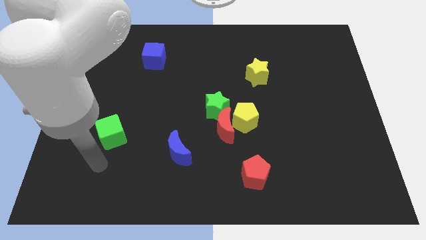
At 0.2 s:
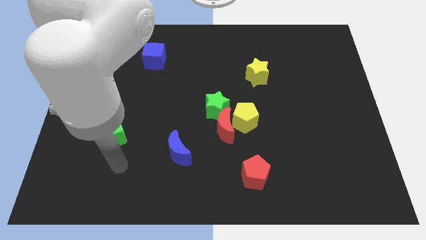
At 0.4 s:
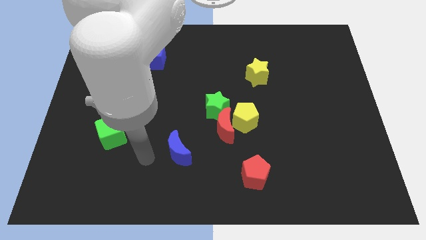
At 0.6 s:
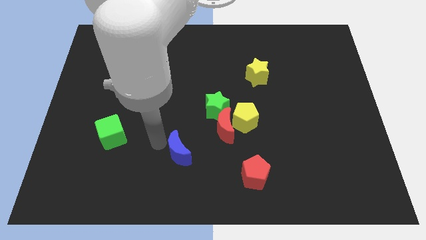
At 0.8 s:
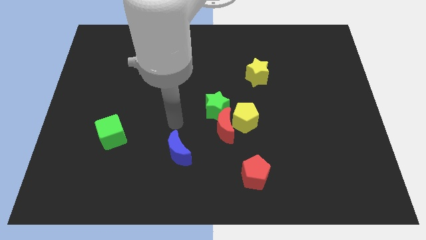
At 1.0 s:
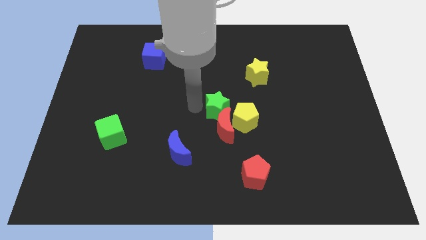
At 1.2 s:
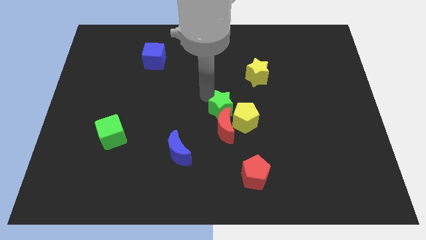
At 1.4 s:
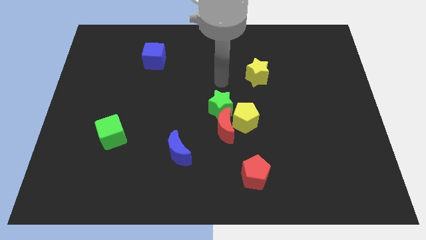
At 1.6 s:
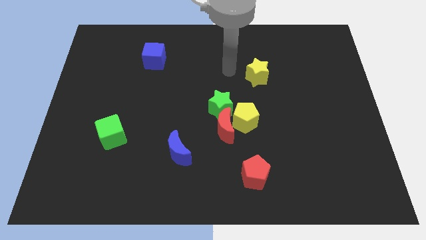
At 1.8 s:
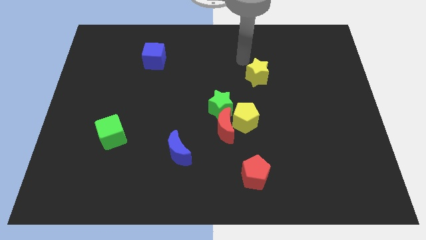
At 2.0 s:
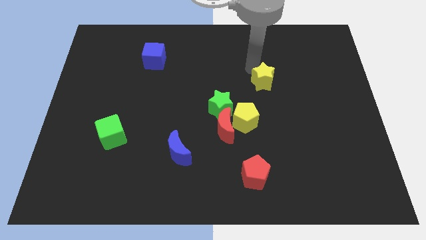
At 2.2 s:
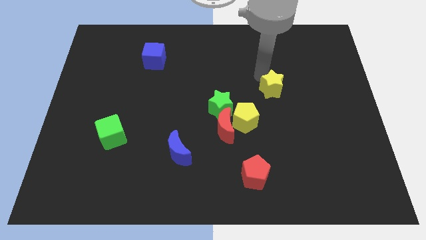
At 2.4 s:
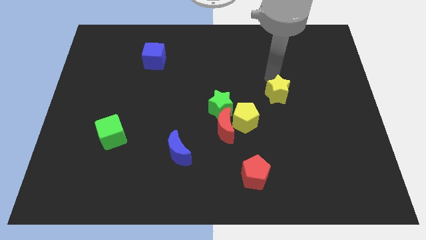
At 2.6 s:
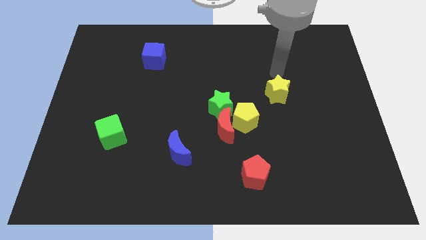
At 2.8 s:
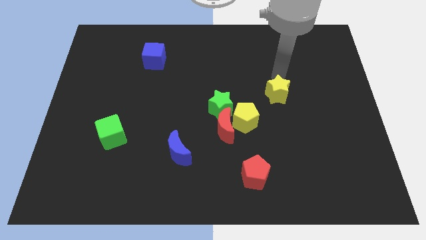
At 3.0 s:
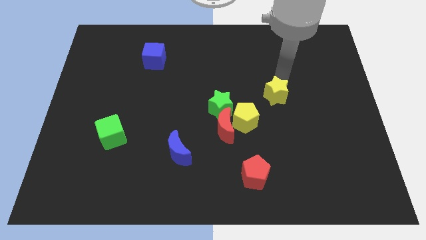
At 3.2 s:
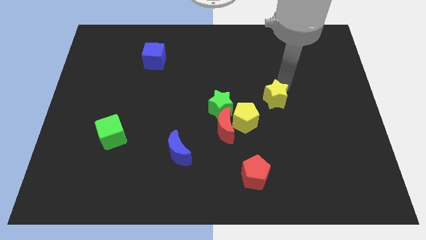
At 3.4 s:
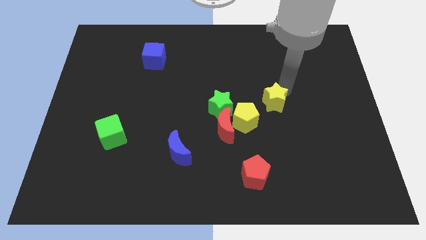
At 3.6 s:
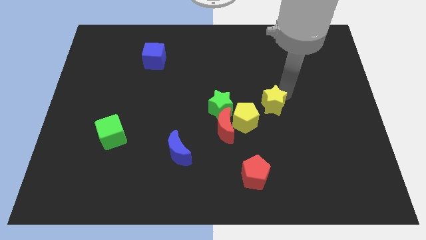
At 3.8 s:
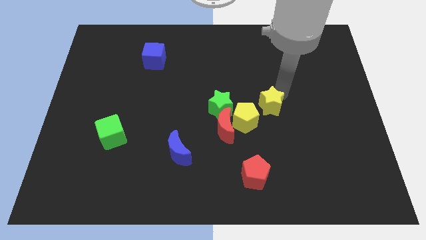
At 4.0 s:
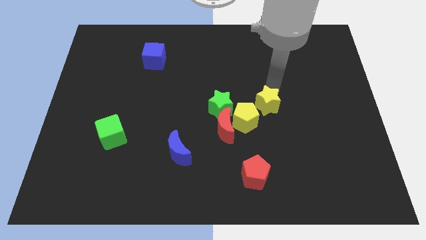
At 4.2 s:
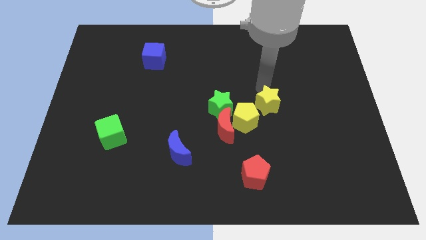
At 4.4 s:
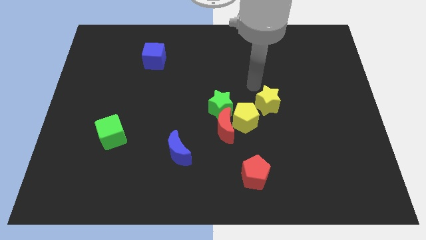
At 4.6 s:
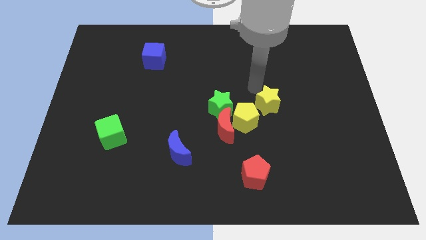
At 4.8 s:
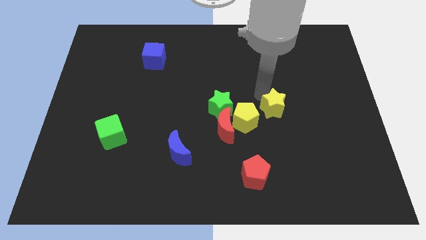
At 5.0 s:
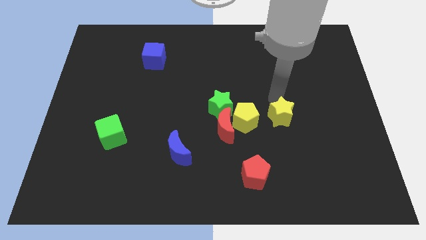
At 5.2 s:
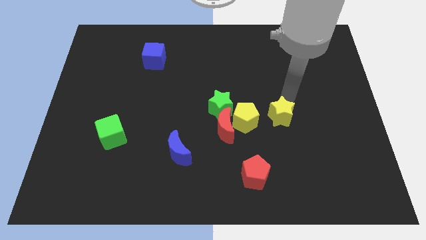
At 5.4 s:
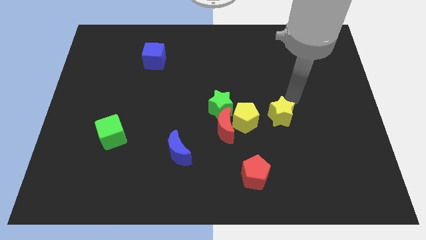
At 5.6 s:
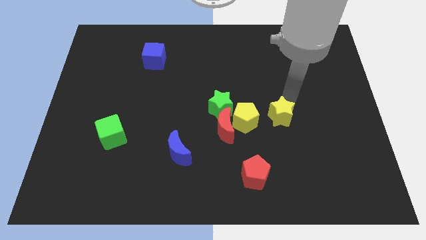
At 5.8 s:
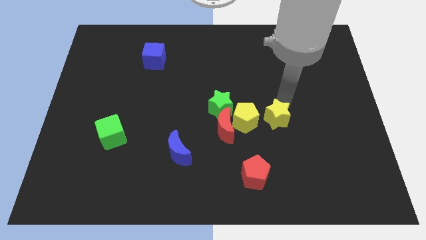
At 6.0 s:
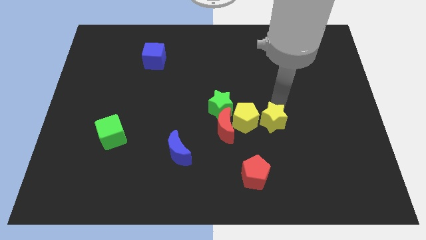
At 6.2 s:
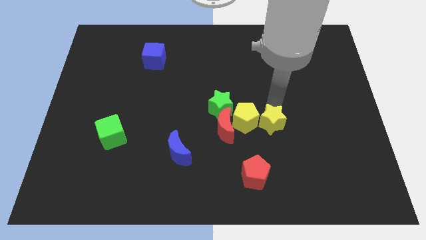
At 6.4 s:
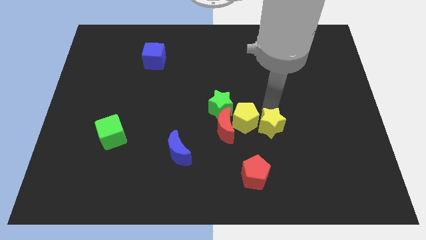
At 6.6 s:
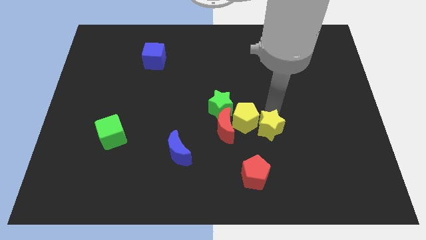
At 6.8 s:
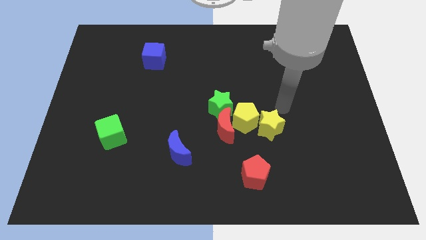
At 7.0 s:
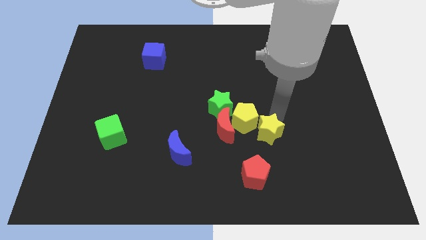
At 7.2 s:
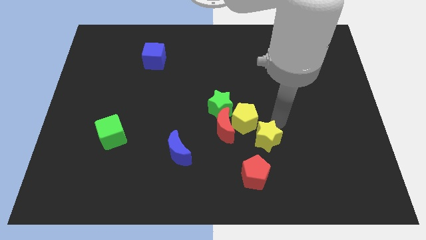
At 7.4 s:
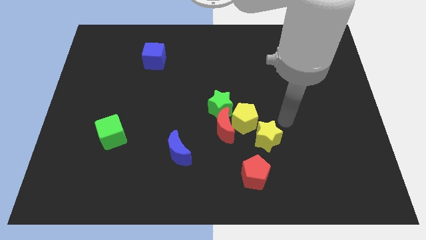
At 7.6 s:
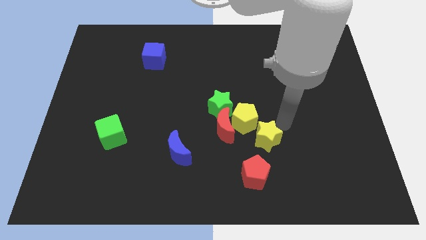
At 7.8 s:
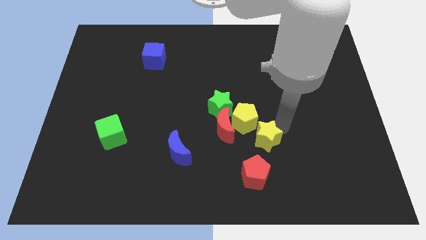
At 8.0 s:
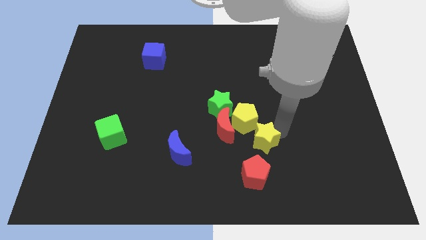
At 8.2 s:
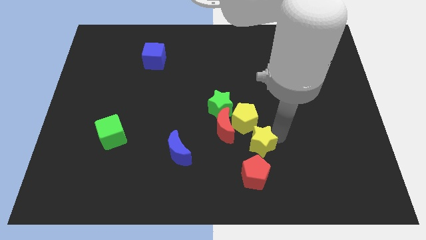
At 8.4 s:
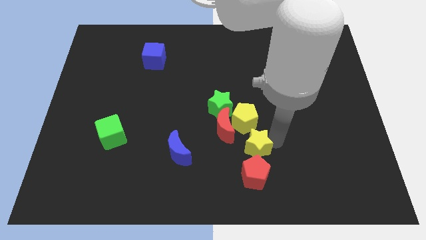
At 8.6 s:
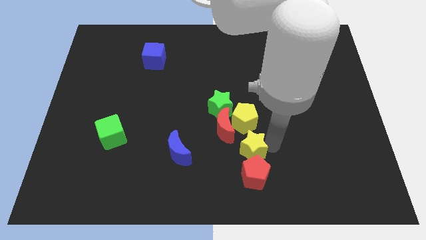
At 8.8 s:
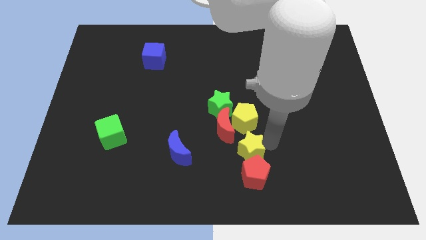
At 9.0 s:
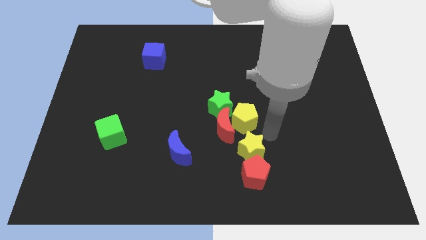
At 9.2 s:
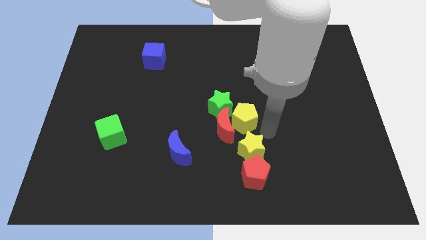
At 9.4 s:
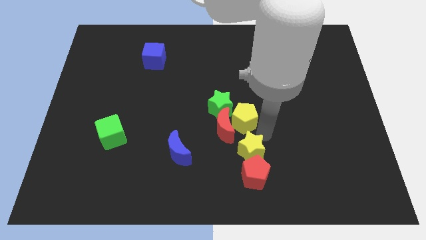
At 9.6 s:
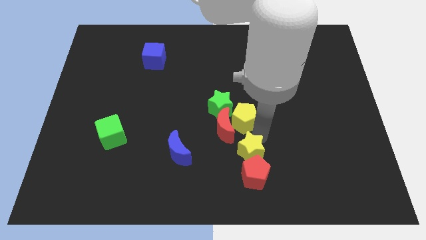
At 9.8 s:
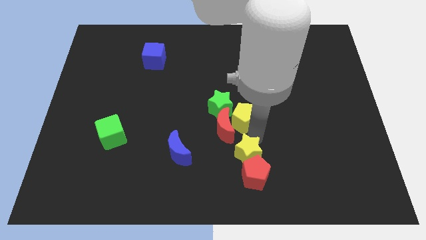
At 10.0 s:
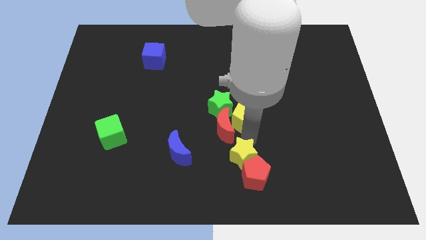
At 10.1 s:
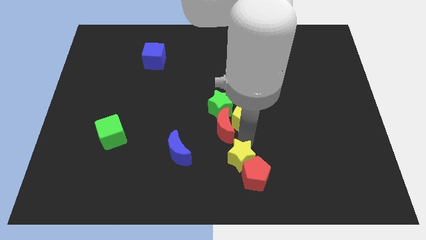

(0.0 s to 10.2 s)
push the yellow star to the bottom

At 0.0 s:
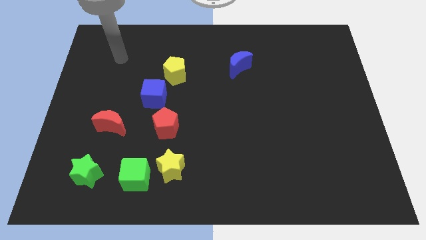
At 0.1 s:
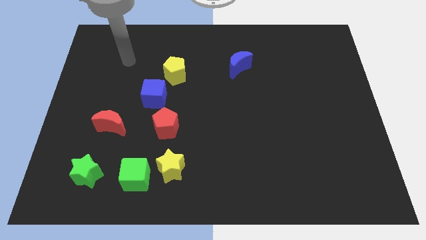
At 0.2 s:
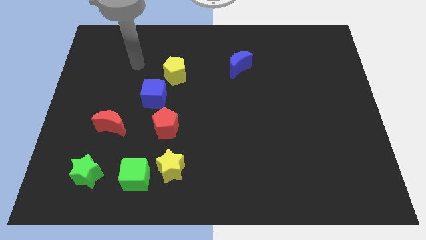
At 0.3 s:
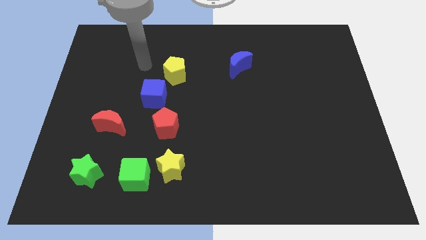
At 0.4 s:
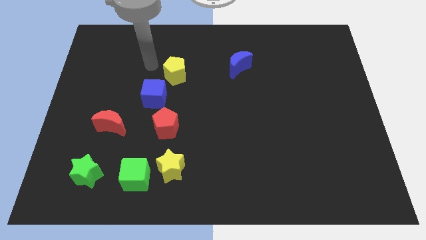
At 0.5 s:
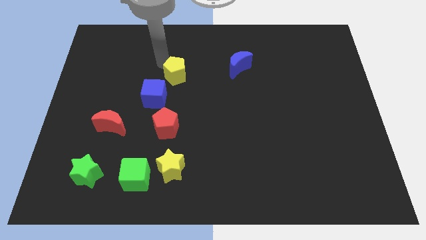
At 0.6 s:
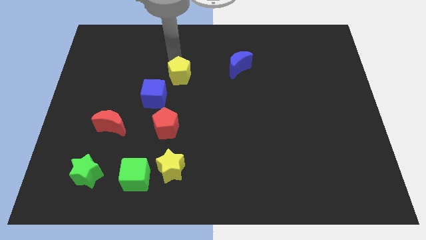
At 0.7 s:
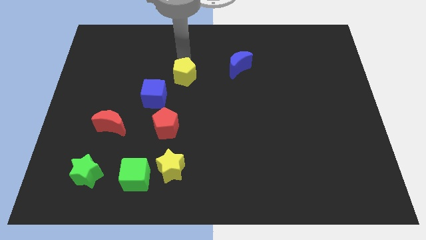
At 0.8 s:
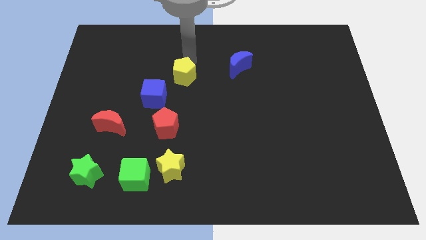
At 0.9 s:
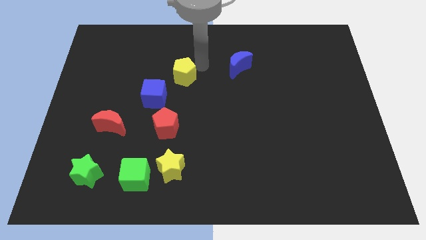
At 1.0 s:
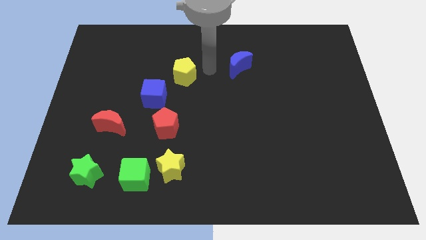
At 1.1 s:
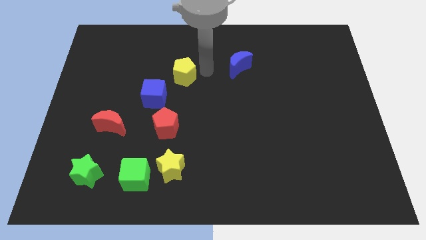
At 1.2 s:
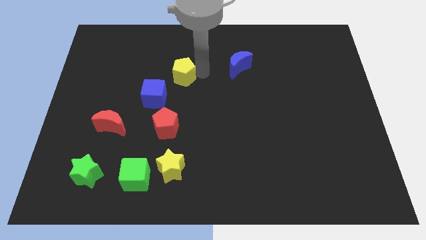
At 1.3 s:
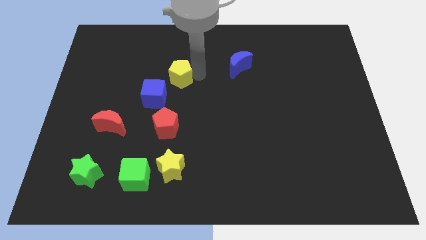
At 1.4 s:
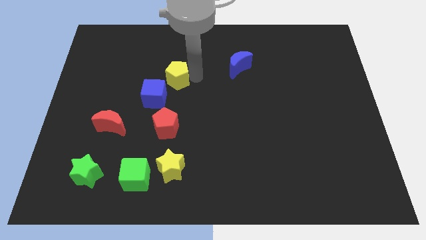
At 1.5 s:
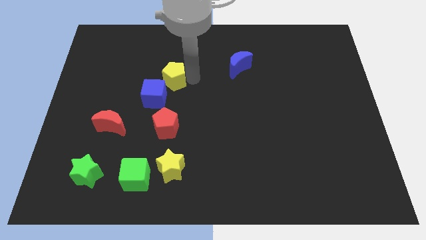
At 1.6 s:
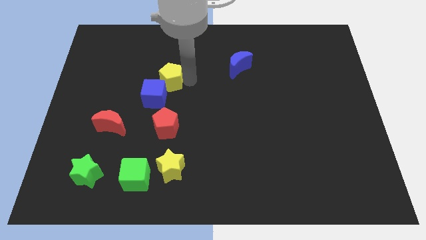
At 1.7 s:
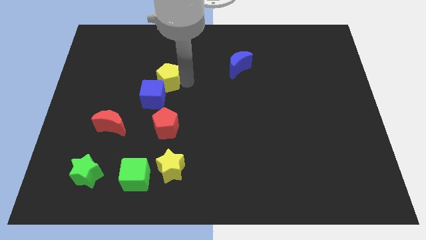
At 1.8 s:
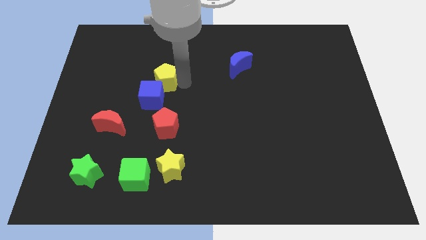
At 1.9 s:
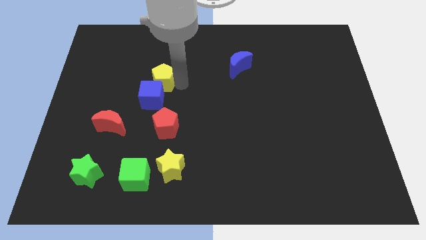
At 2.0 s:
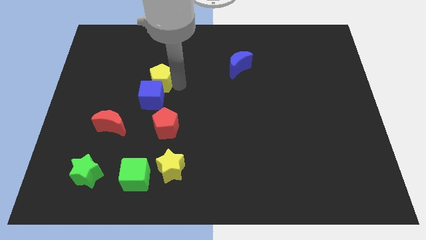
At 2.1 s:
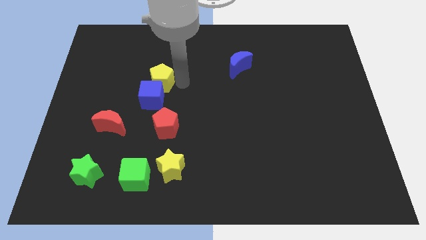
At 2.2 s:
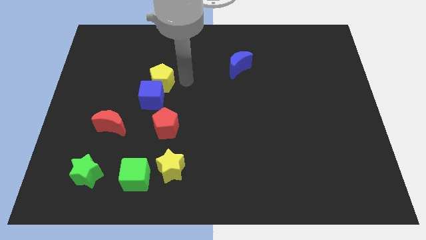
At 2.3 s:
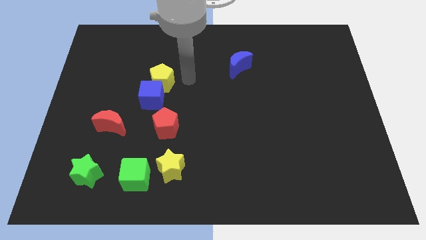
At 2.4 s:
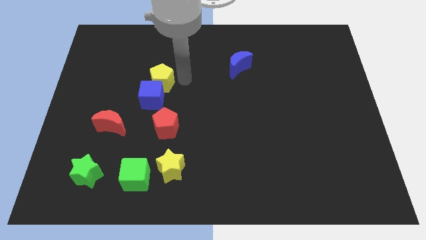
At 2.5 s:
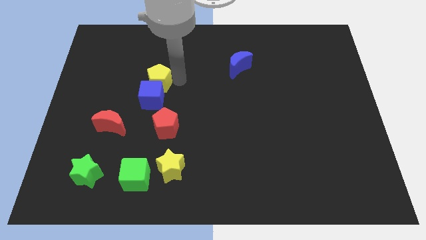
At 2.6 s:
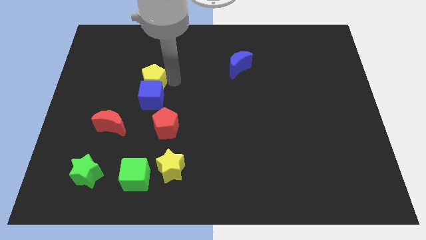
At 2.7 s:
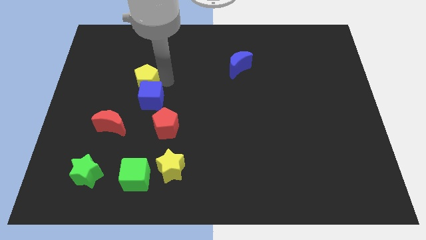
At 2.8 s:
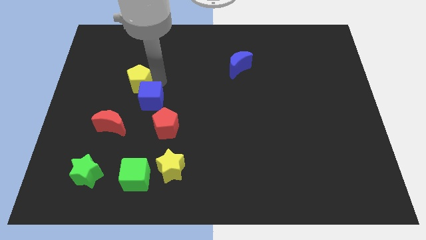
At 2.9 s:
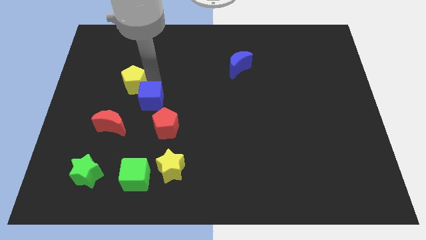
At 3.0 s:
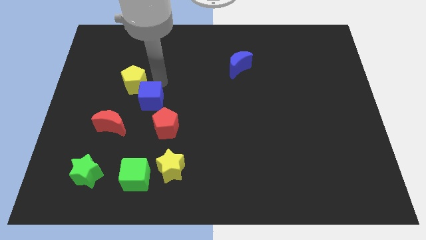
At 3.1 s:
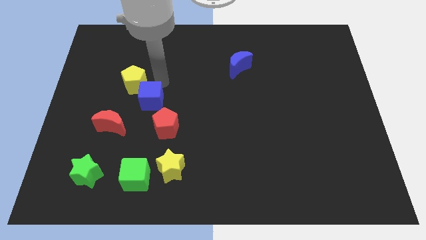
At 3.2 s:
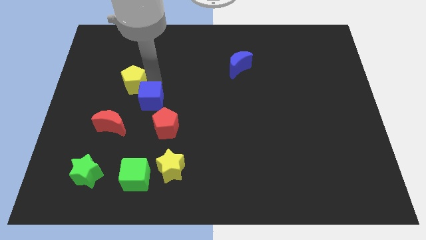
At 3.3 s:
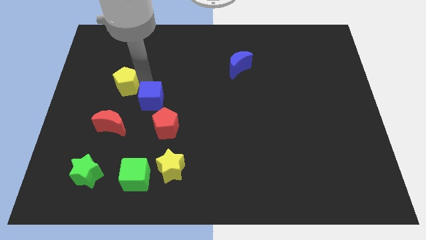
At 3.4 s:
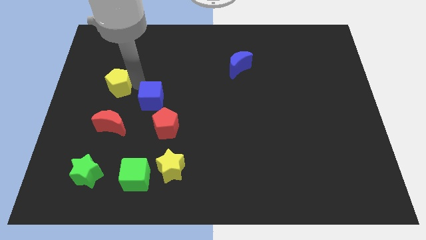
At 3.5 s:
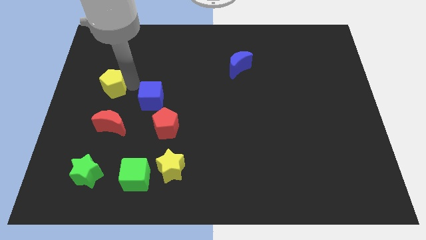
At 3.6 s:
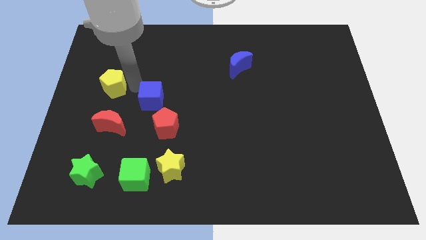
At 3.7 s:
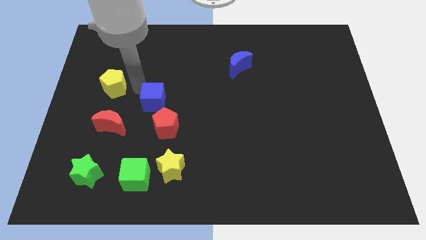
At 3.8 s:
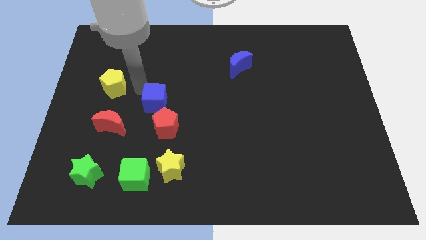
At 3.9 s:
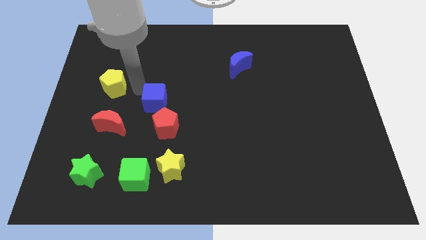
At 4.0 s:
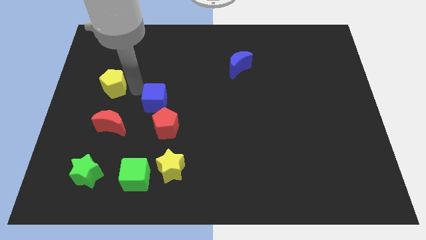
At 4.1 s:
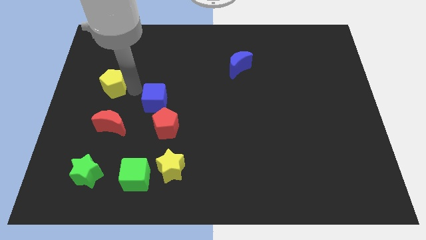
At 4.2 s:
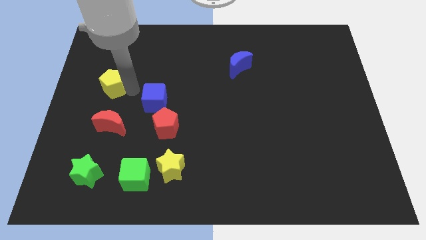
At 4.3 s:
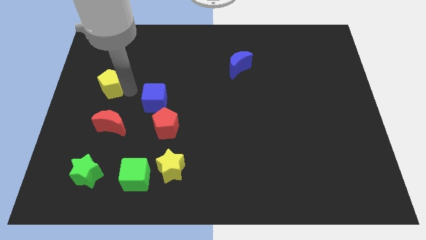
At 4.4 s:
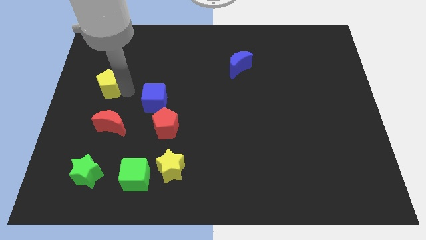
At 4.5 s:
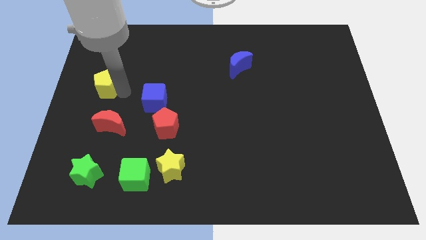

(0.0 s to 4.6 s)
move the yellow pentagon to the center left
